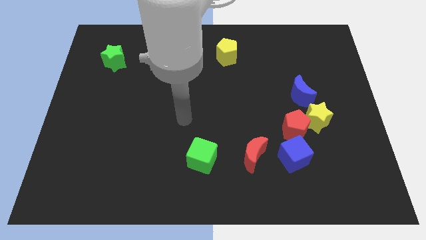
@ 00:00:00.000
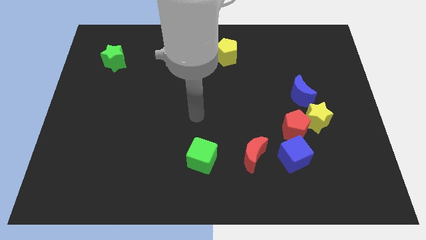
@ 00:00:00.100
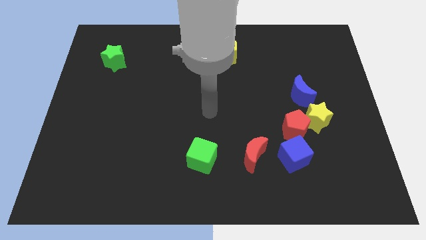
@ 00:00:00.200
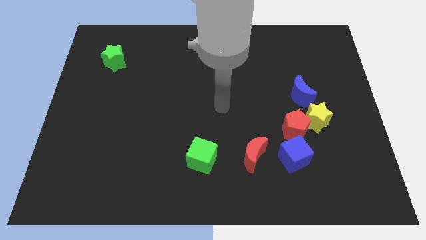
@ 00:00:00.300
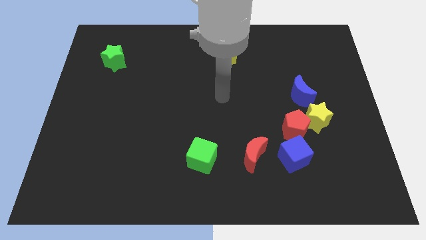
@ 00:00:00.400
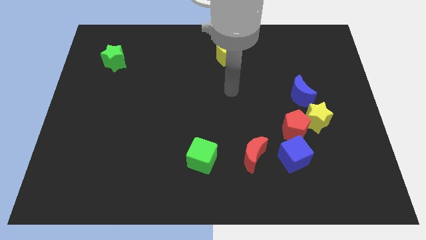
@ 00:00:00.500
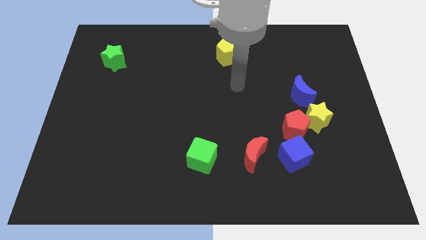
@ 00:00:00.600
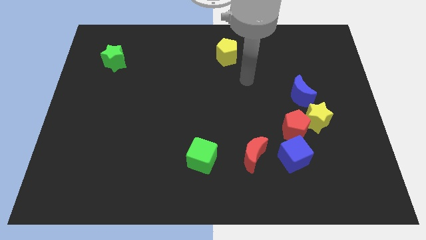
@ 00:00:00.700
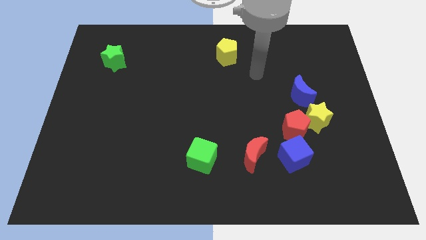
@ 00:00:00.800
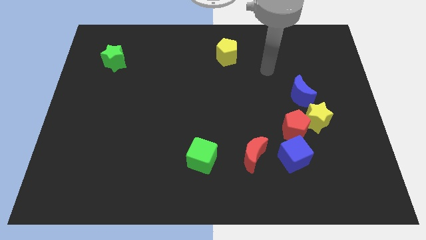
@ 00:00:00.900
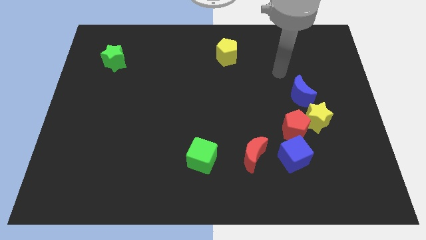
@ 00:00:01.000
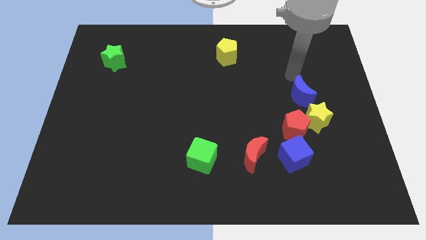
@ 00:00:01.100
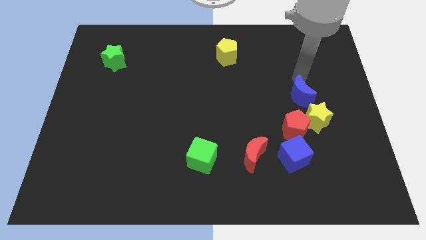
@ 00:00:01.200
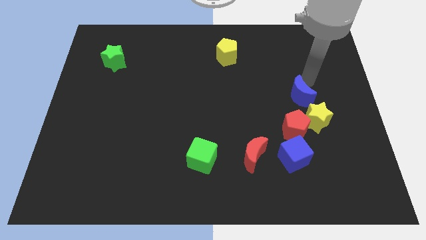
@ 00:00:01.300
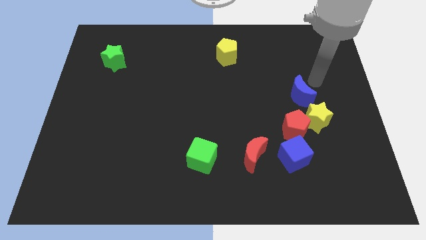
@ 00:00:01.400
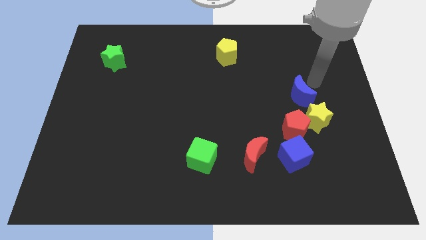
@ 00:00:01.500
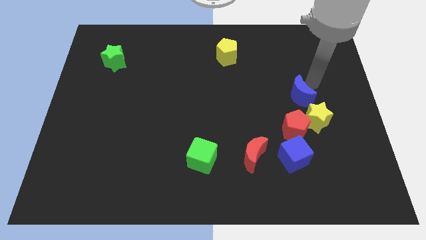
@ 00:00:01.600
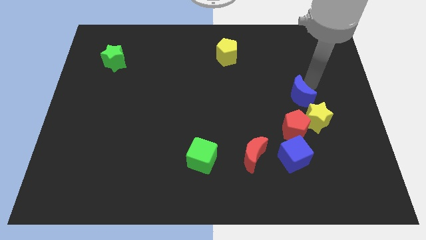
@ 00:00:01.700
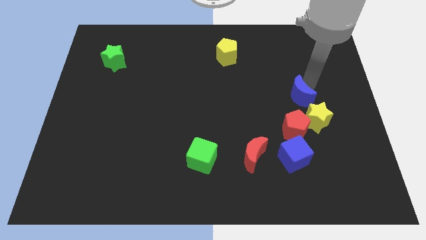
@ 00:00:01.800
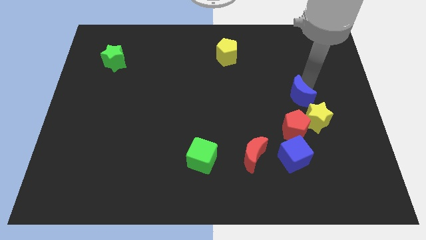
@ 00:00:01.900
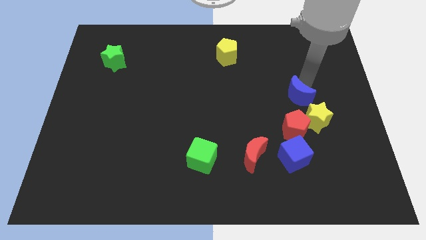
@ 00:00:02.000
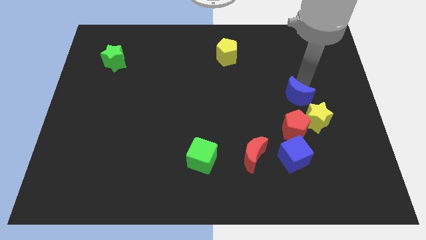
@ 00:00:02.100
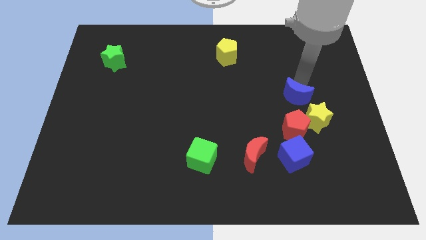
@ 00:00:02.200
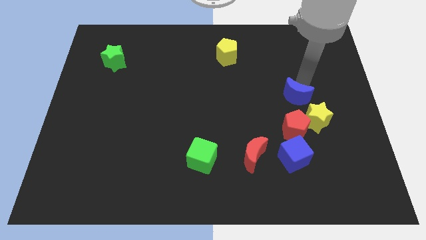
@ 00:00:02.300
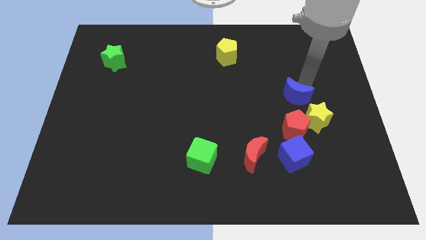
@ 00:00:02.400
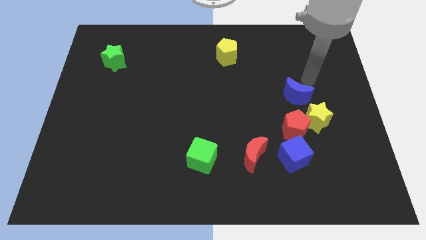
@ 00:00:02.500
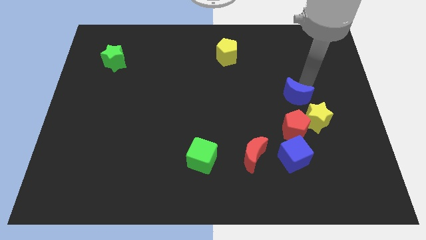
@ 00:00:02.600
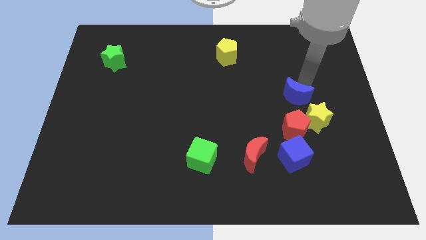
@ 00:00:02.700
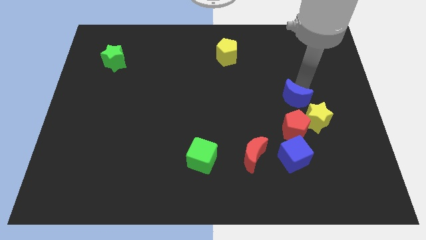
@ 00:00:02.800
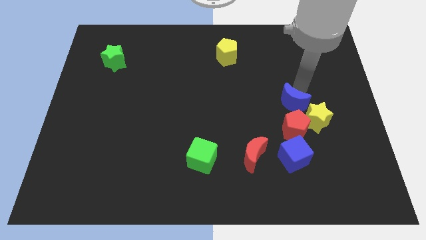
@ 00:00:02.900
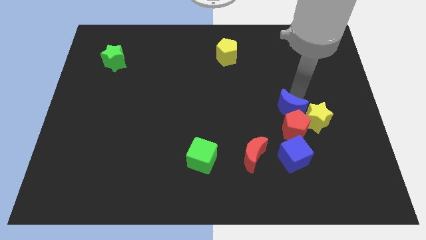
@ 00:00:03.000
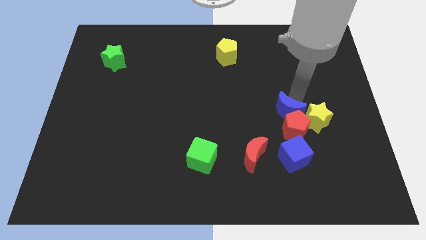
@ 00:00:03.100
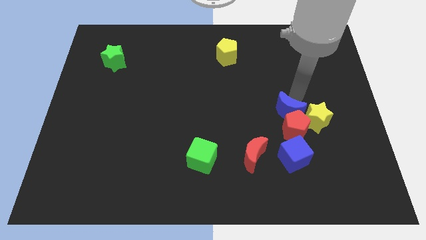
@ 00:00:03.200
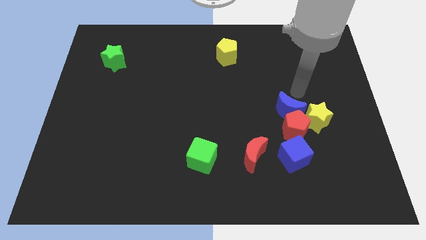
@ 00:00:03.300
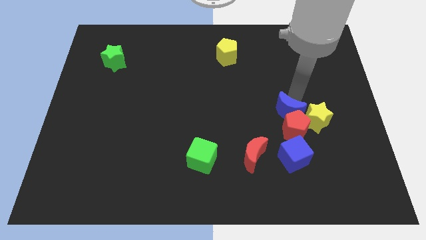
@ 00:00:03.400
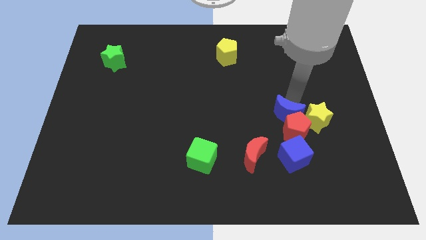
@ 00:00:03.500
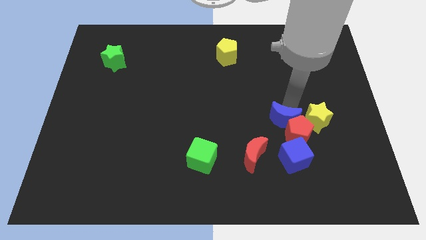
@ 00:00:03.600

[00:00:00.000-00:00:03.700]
slide the blue moon to the top right side of the red moon

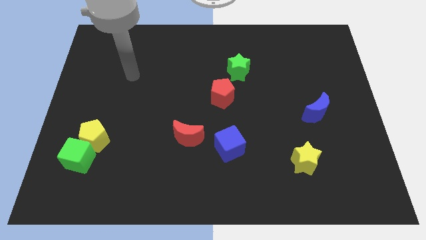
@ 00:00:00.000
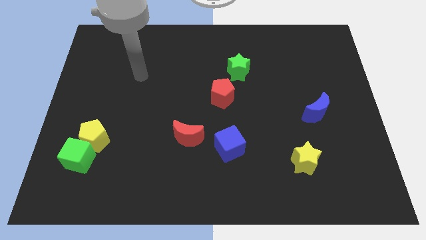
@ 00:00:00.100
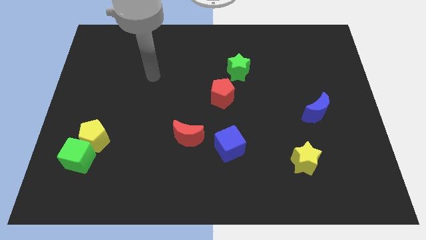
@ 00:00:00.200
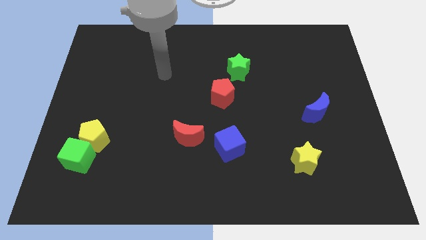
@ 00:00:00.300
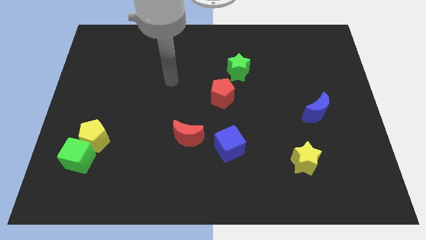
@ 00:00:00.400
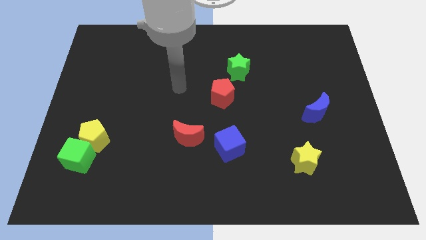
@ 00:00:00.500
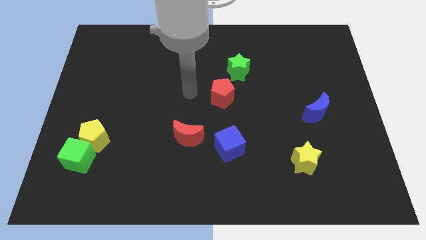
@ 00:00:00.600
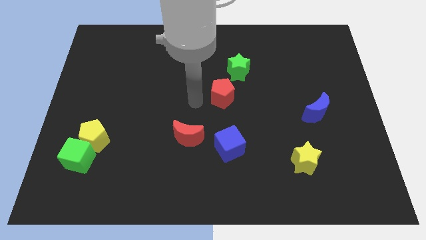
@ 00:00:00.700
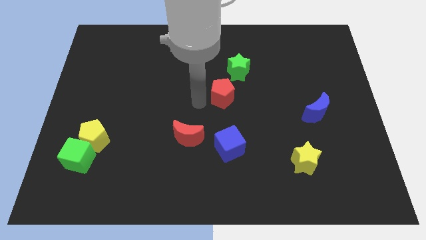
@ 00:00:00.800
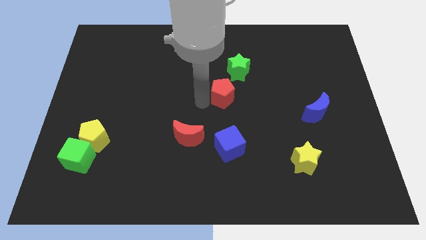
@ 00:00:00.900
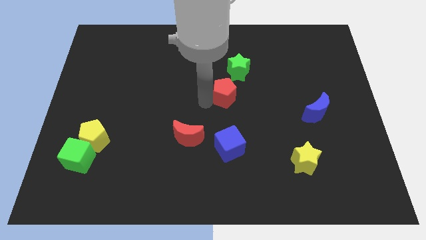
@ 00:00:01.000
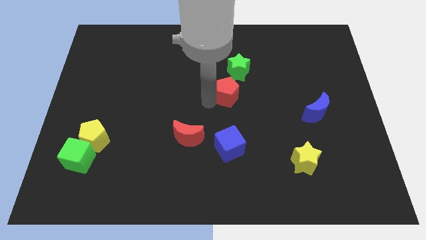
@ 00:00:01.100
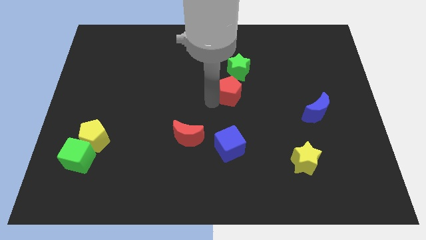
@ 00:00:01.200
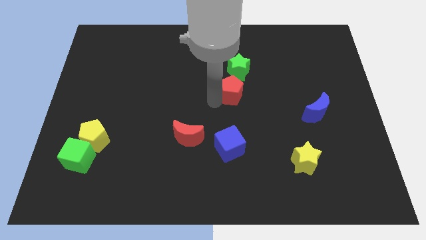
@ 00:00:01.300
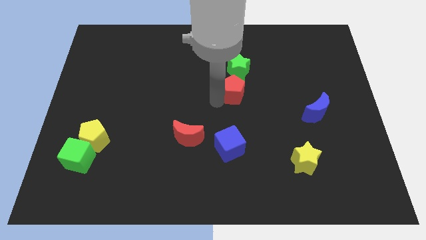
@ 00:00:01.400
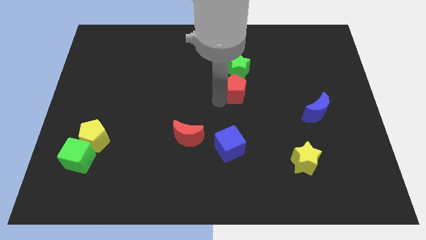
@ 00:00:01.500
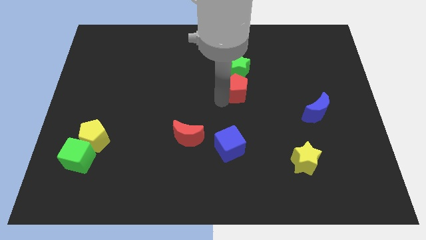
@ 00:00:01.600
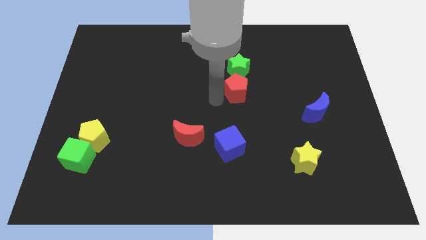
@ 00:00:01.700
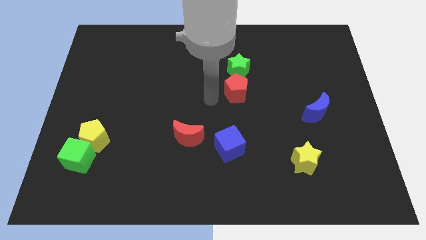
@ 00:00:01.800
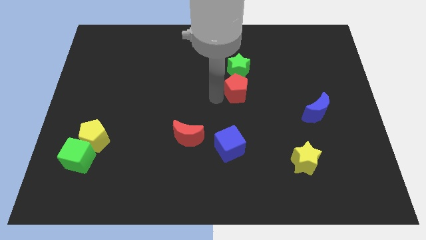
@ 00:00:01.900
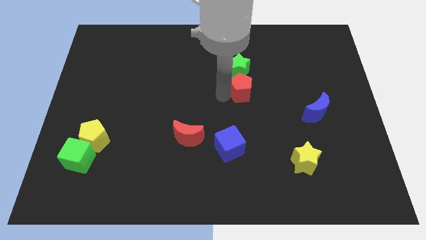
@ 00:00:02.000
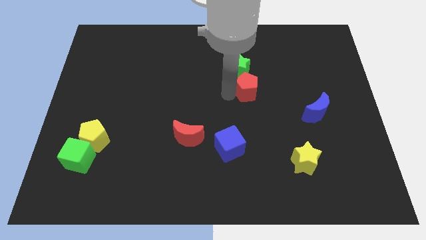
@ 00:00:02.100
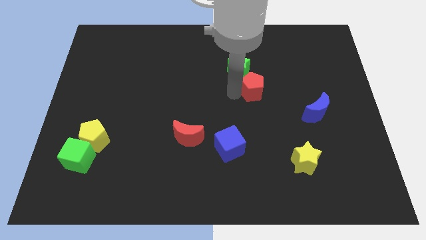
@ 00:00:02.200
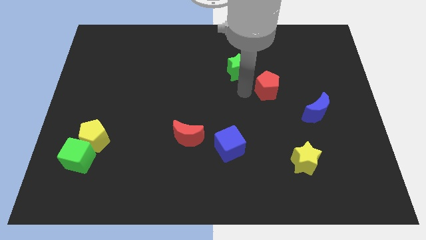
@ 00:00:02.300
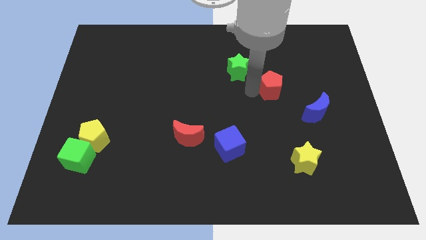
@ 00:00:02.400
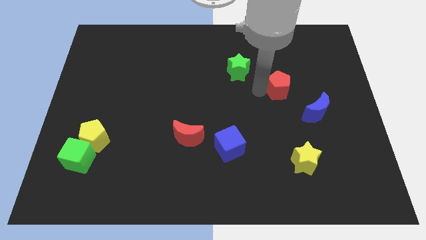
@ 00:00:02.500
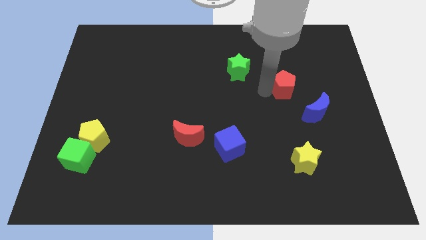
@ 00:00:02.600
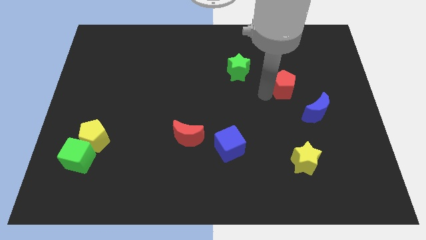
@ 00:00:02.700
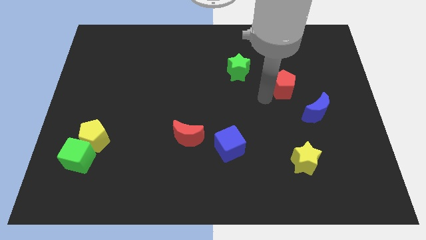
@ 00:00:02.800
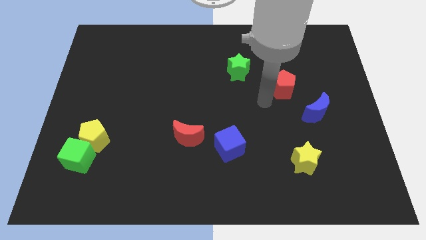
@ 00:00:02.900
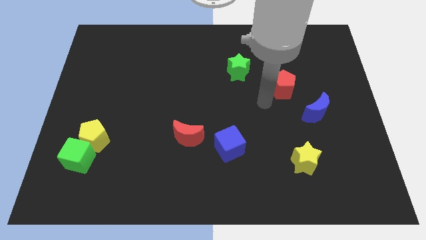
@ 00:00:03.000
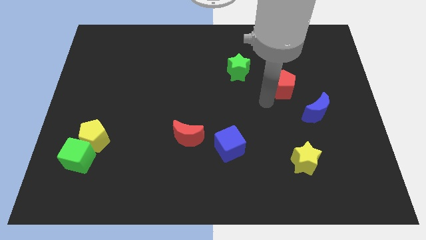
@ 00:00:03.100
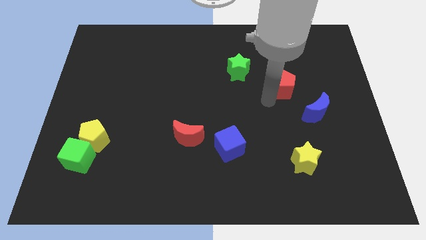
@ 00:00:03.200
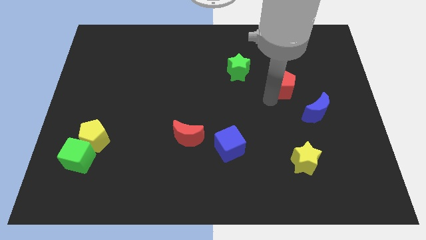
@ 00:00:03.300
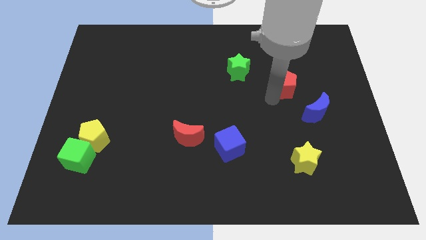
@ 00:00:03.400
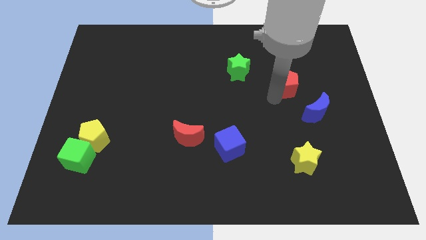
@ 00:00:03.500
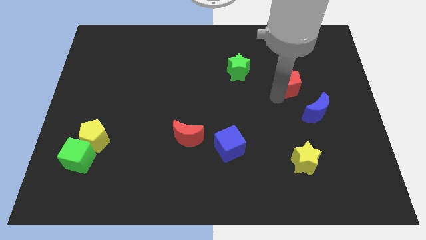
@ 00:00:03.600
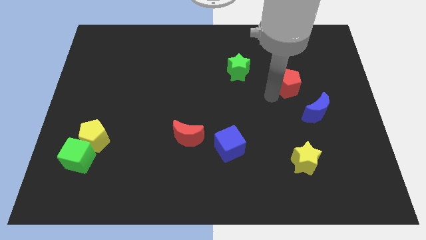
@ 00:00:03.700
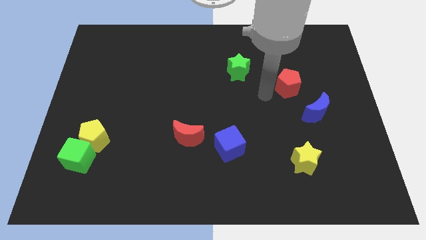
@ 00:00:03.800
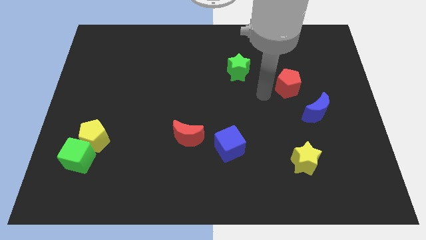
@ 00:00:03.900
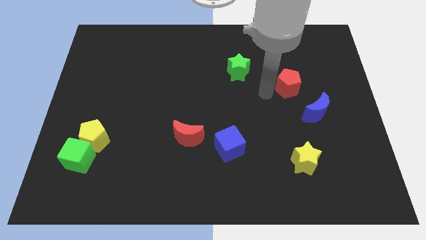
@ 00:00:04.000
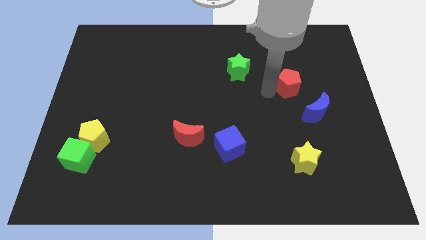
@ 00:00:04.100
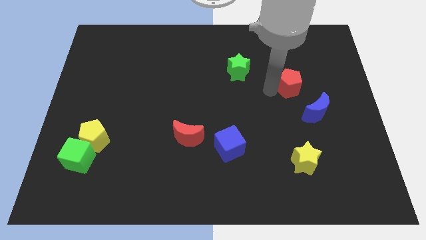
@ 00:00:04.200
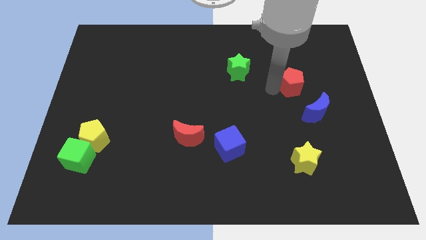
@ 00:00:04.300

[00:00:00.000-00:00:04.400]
push the red pentagon to the top of the blue moon
